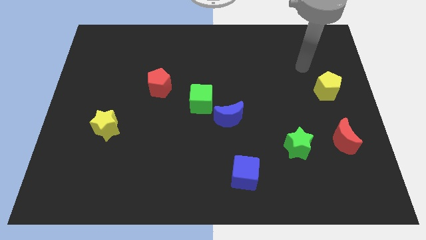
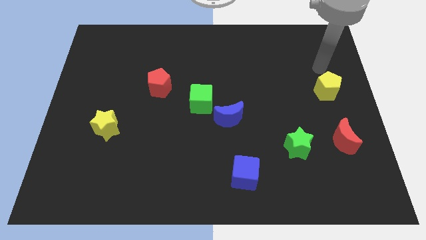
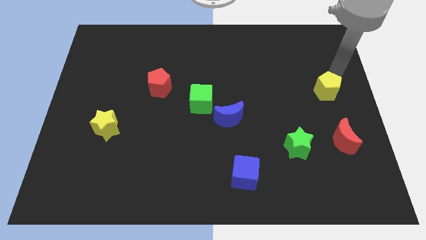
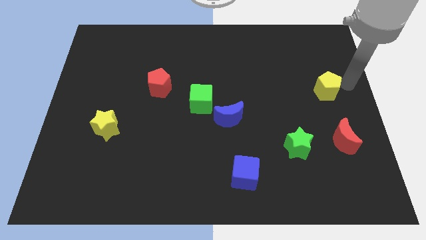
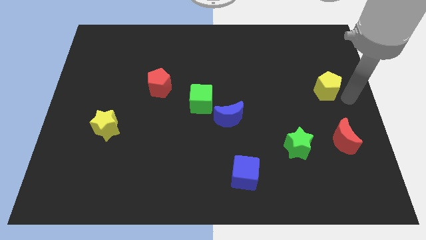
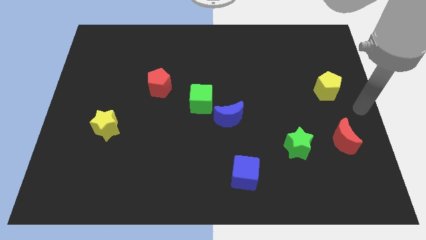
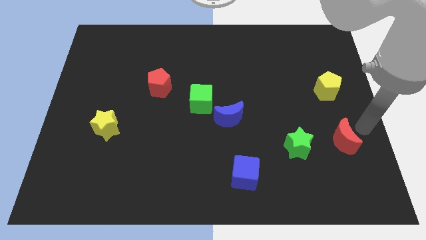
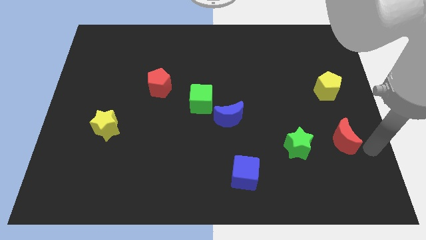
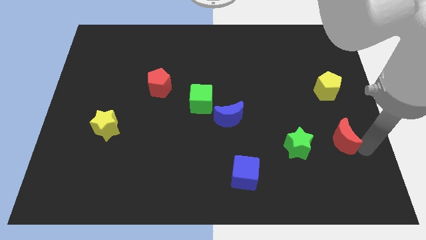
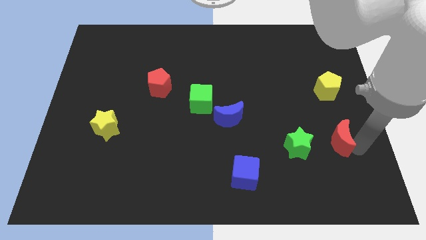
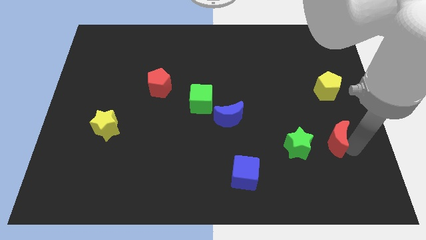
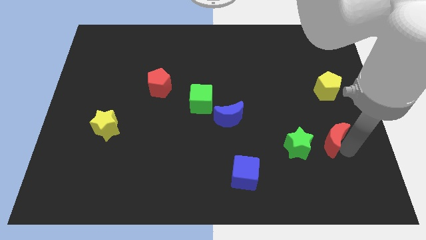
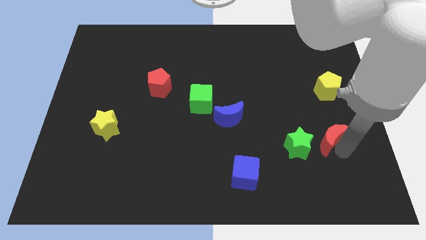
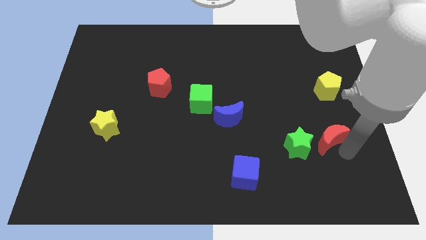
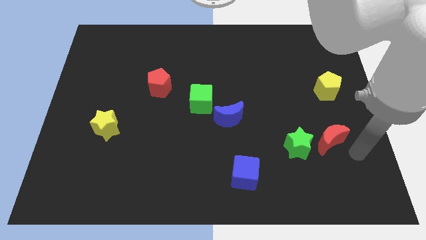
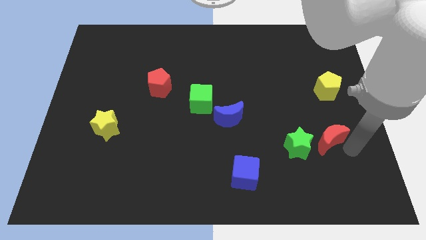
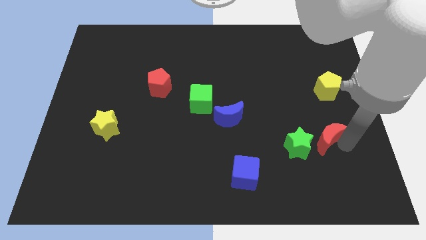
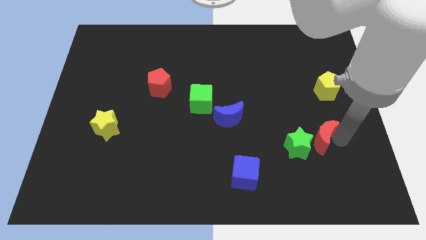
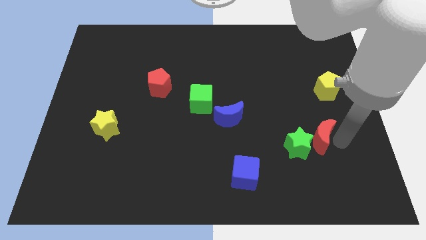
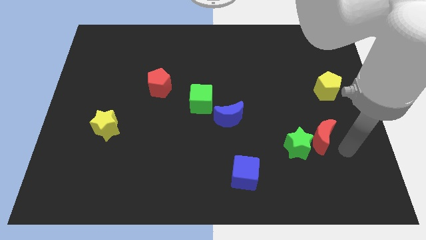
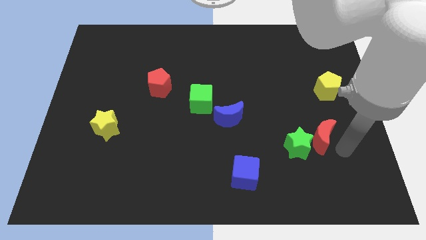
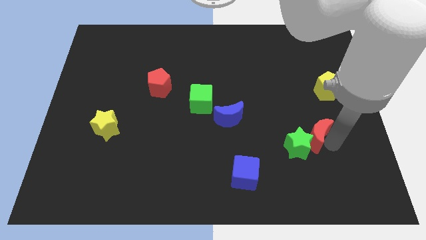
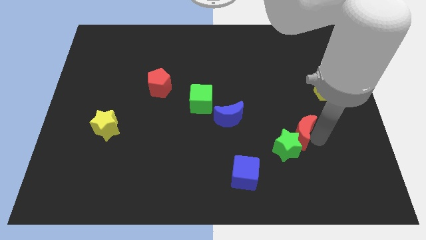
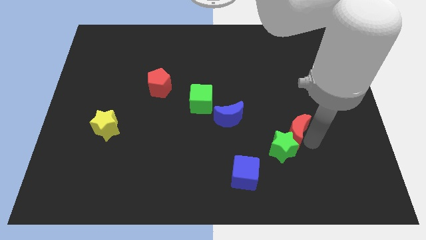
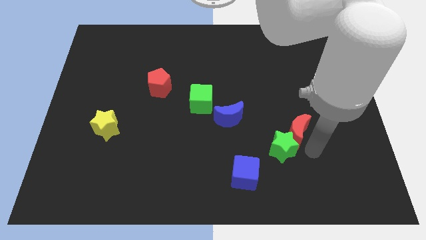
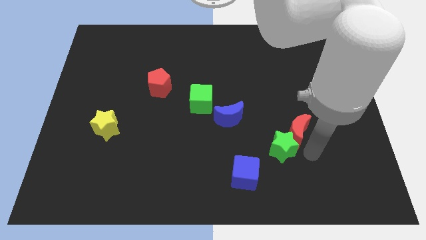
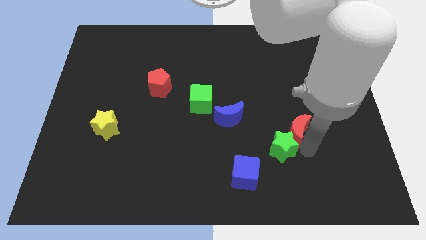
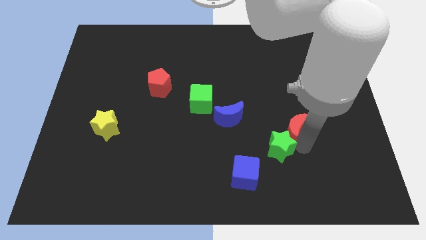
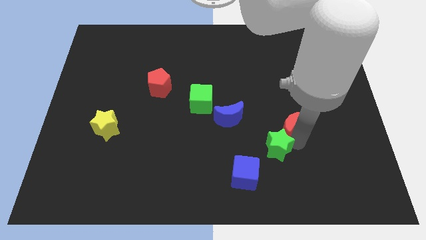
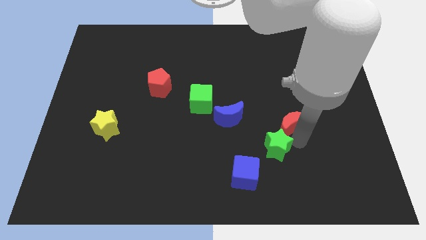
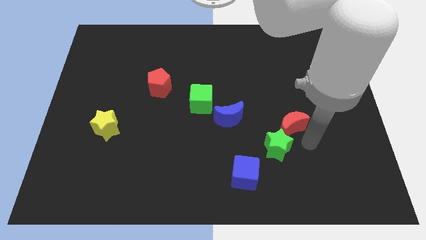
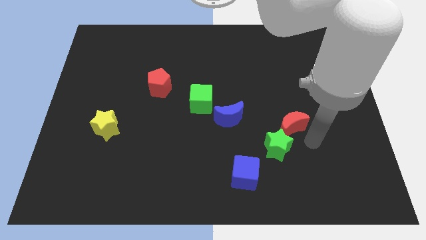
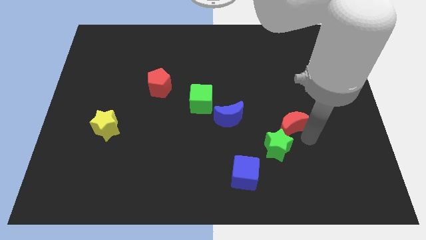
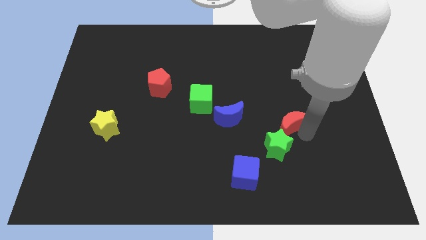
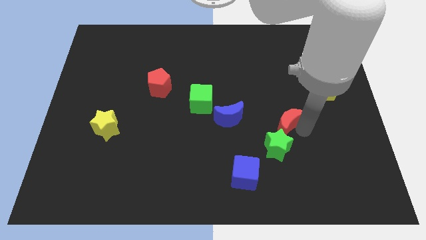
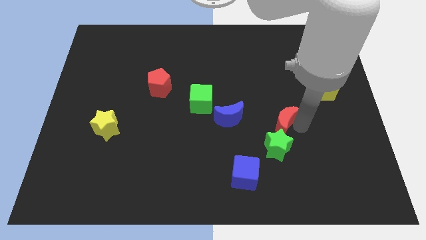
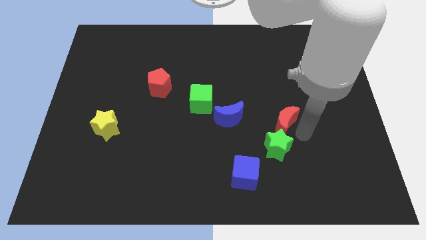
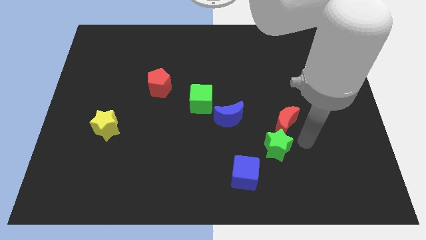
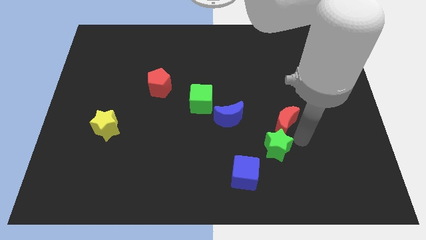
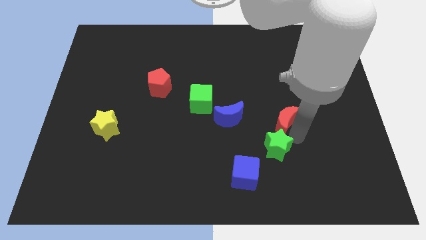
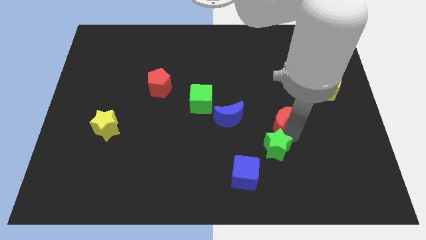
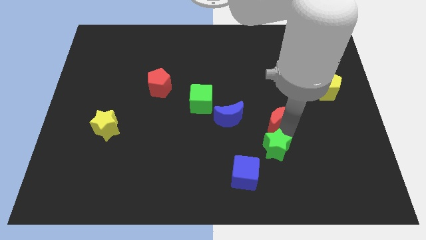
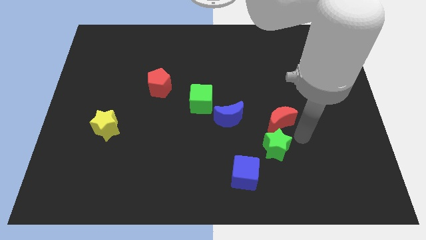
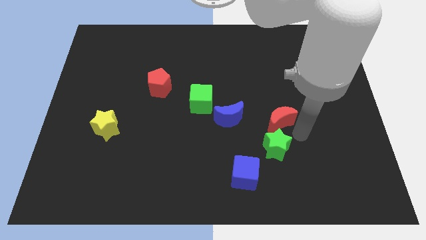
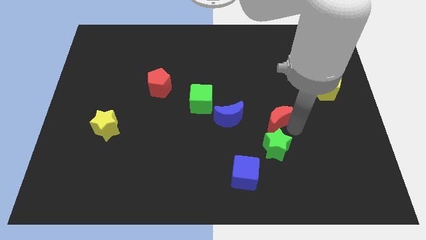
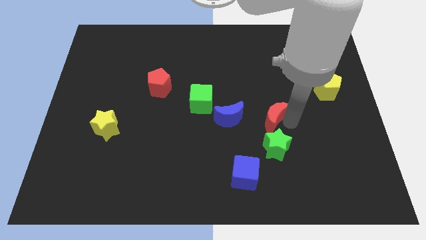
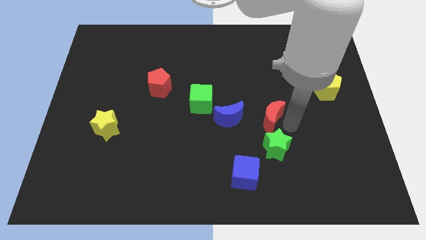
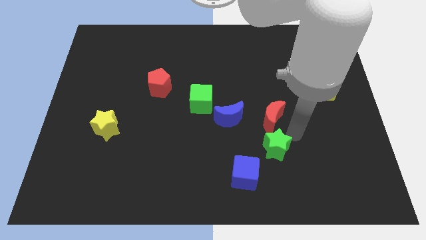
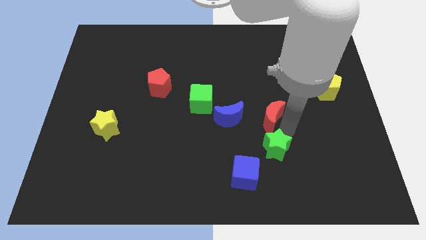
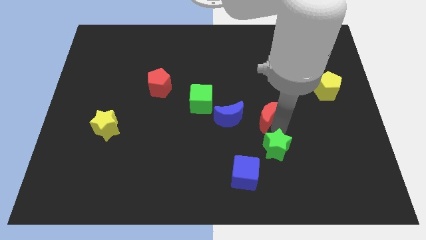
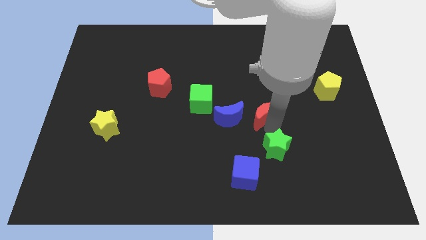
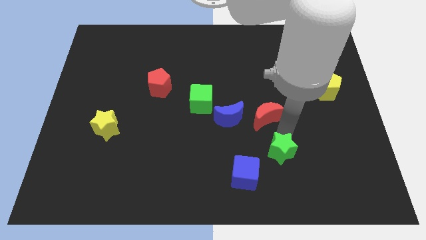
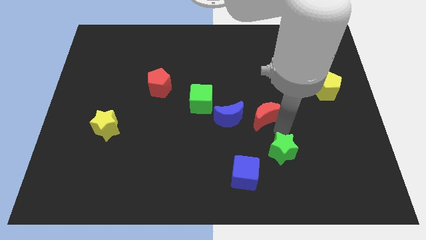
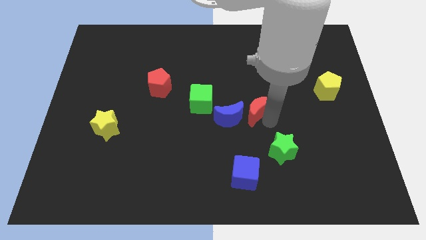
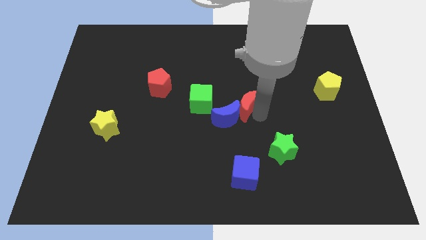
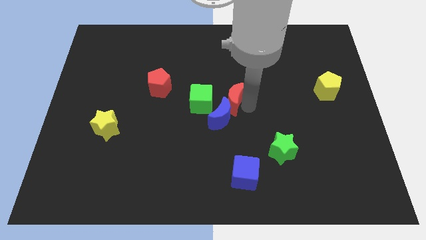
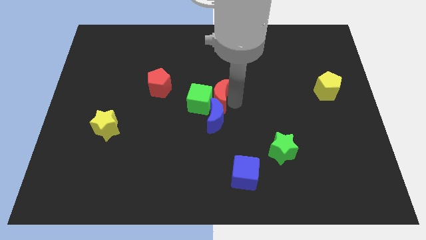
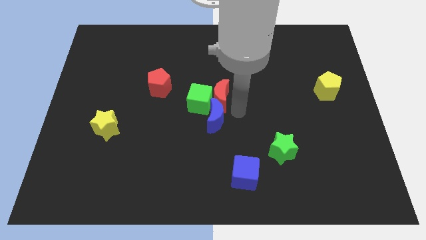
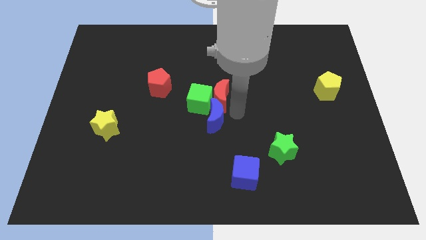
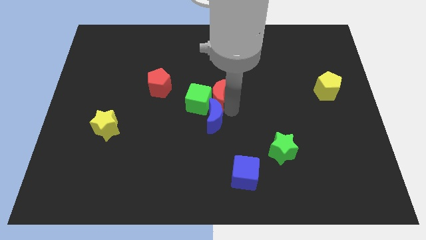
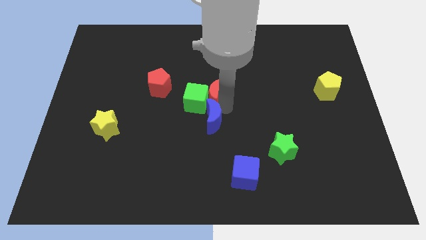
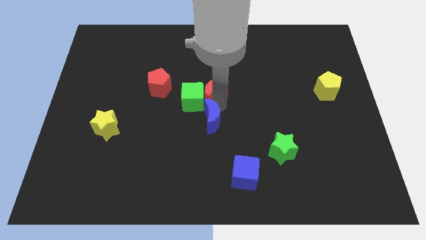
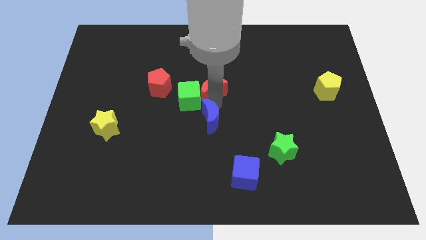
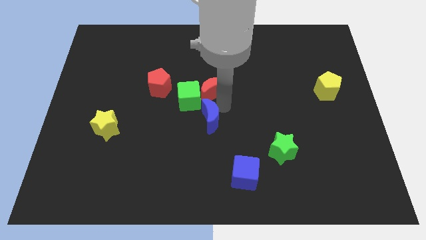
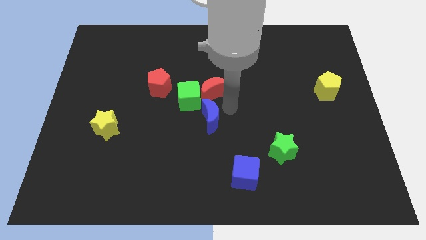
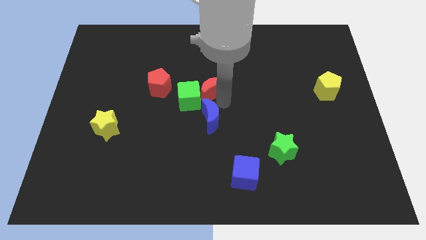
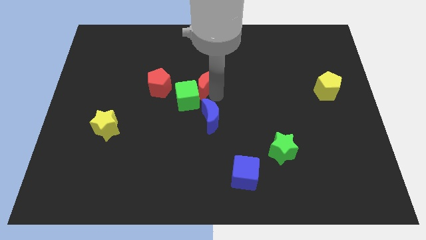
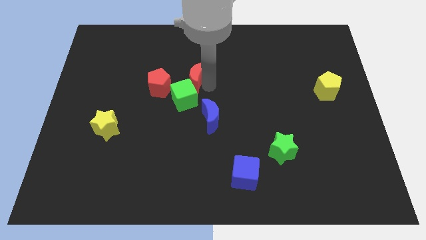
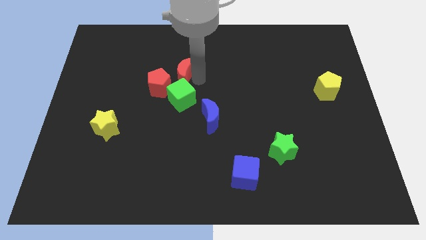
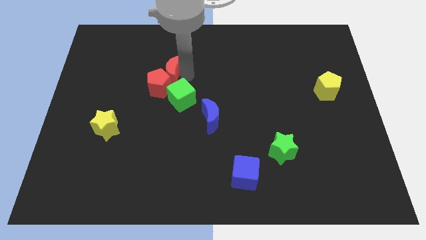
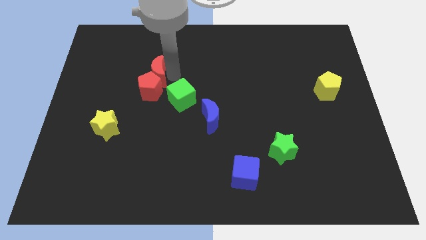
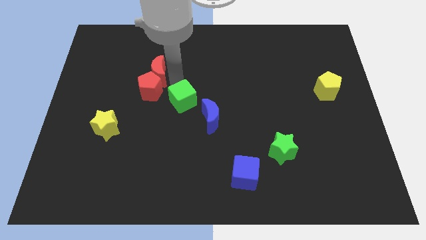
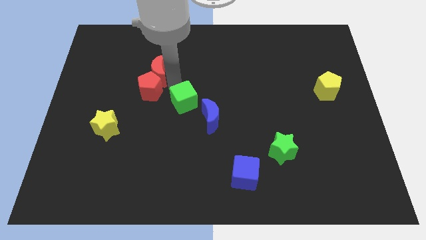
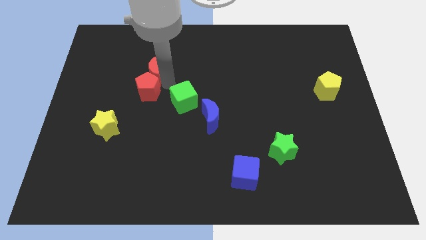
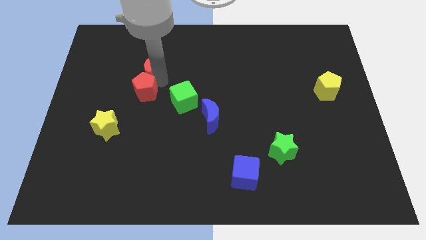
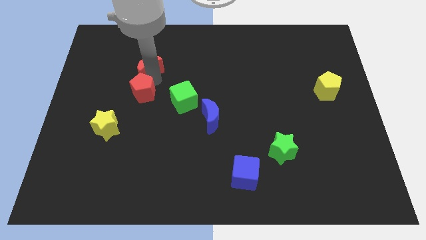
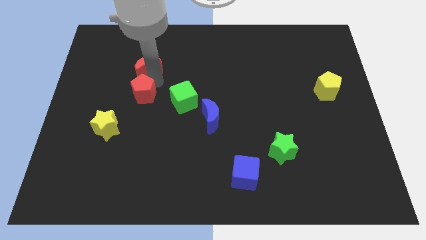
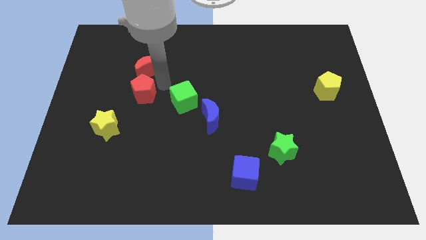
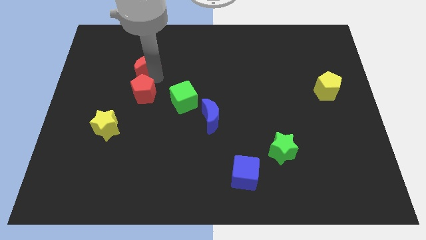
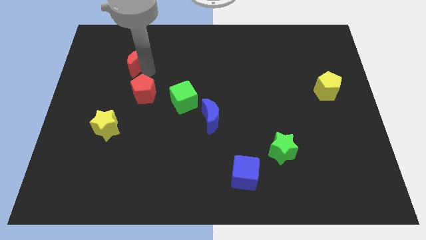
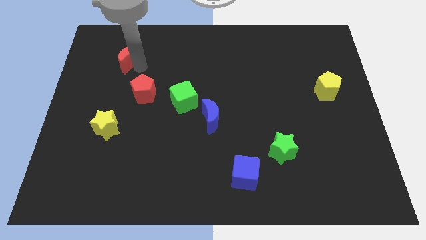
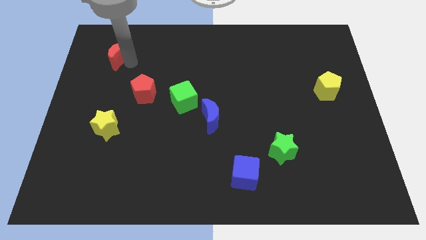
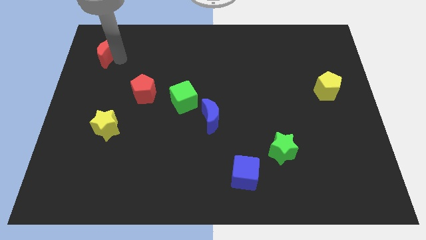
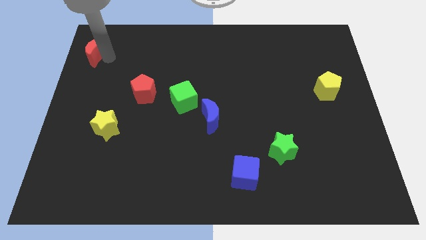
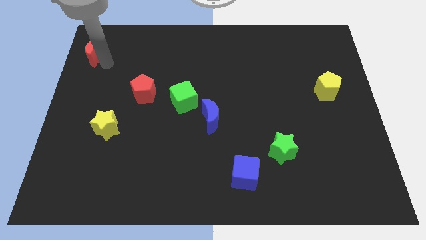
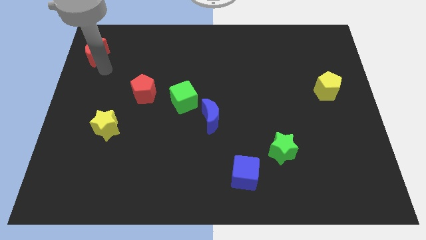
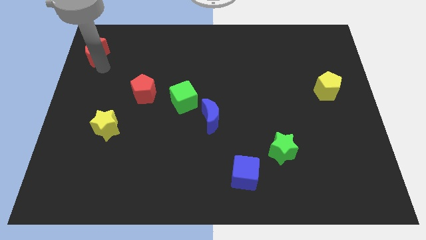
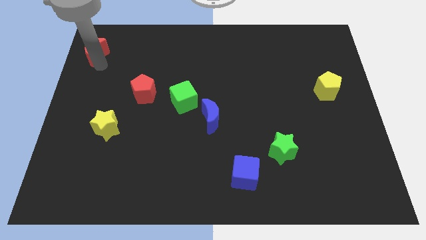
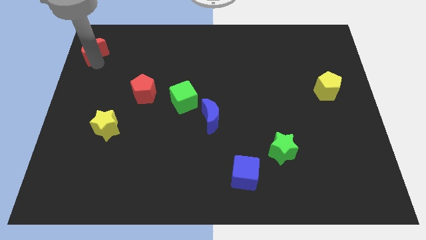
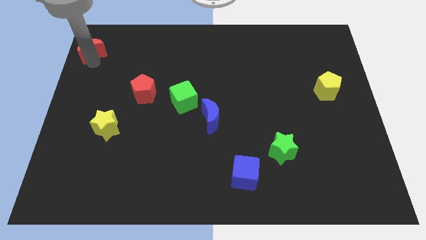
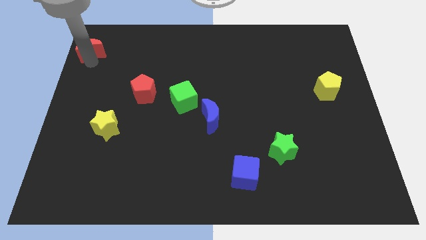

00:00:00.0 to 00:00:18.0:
slide the red moon to the top left
